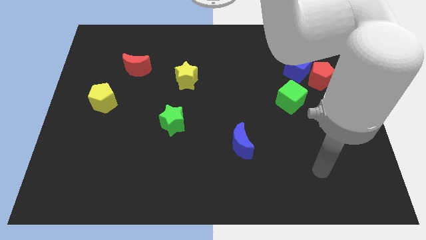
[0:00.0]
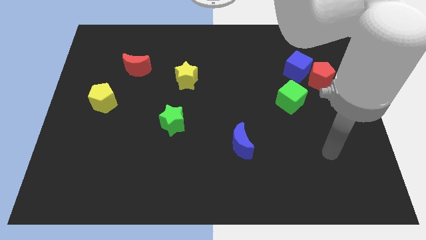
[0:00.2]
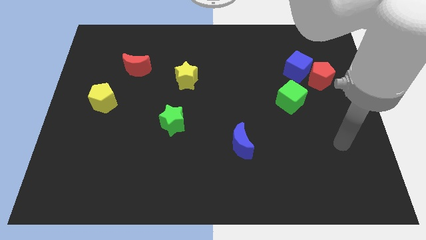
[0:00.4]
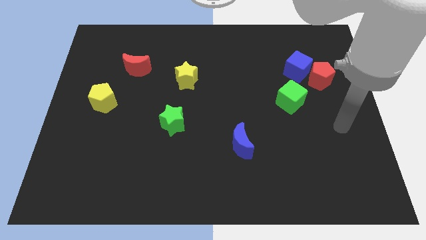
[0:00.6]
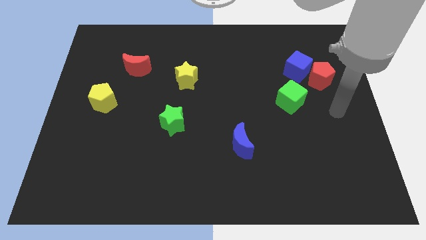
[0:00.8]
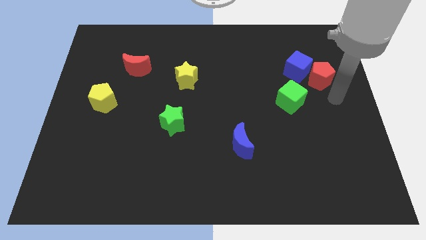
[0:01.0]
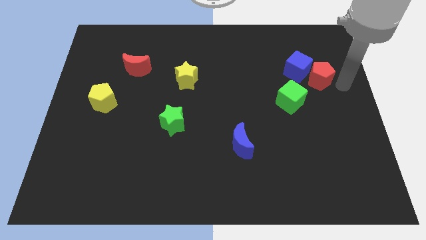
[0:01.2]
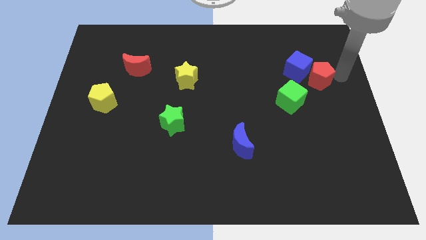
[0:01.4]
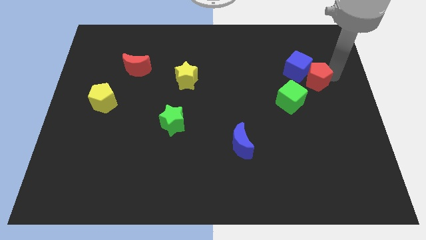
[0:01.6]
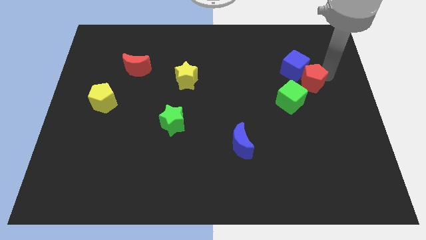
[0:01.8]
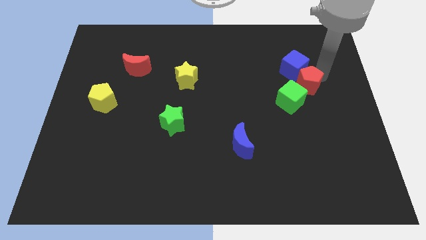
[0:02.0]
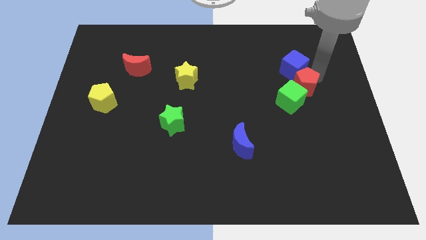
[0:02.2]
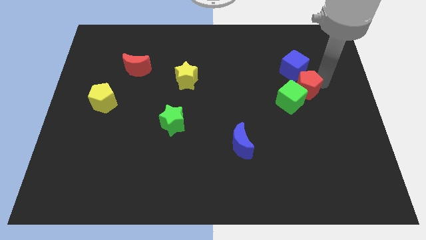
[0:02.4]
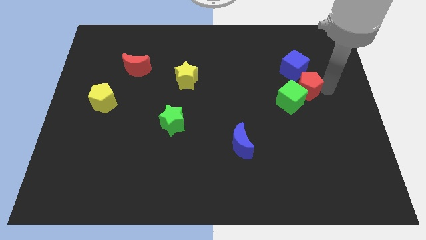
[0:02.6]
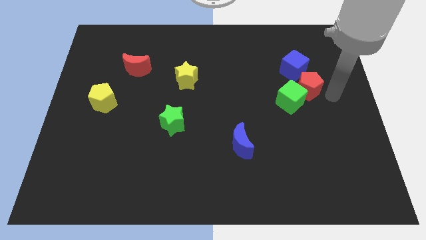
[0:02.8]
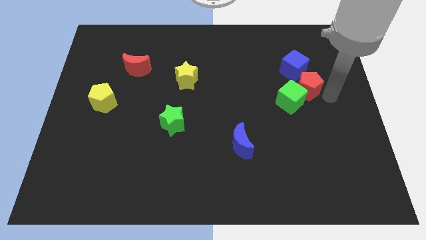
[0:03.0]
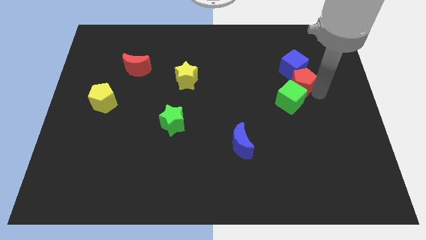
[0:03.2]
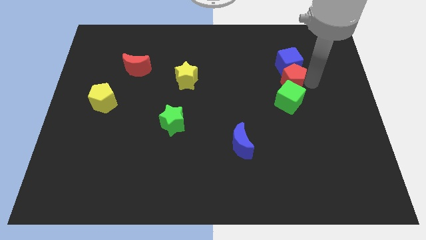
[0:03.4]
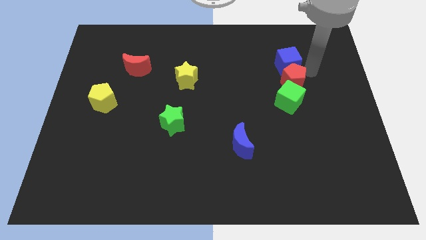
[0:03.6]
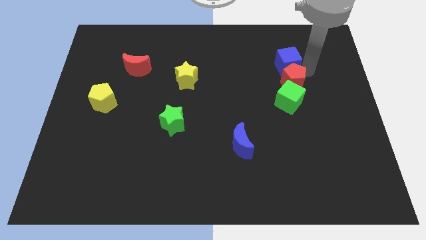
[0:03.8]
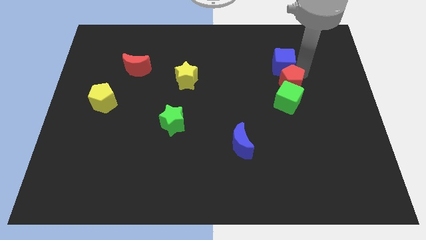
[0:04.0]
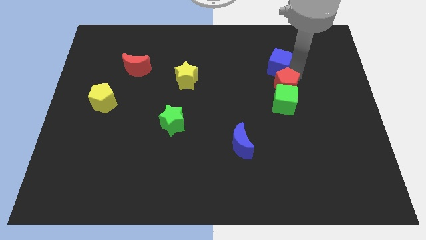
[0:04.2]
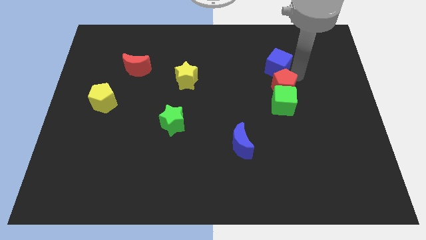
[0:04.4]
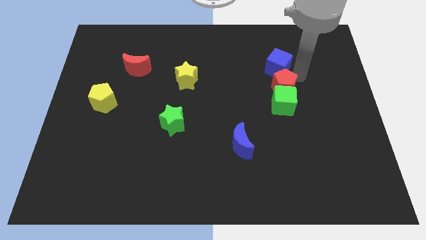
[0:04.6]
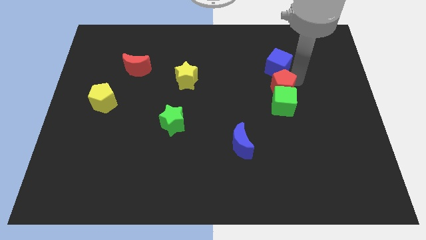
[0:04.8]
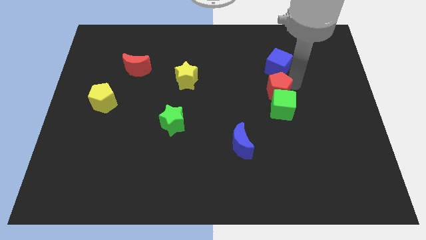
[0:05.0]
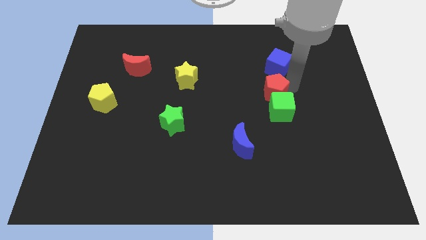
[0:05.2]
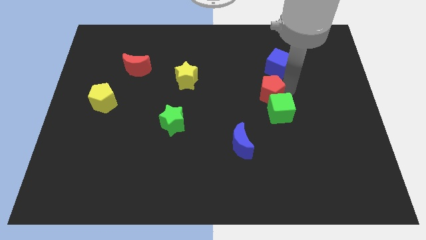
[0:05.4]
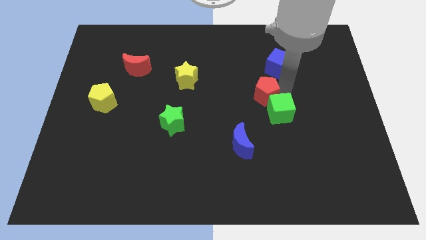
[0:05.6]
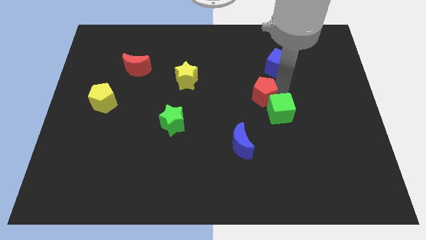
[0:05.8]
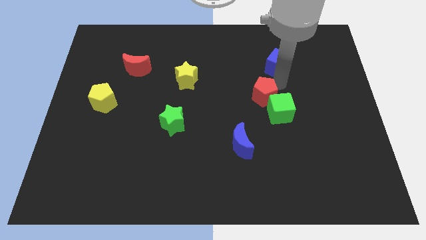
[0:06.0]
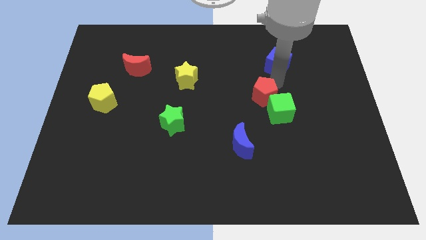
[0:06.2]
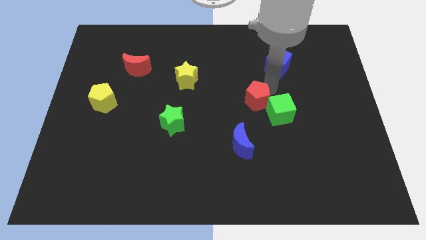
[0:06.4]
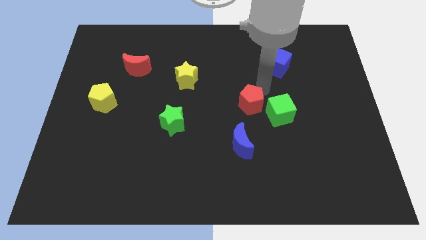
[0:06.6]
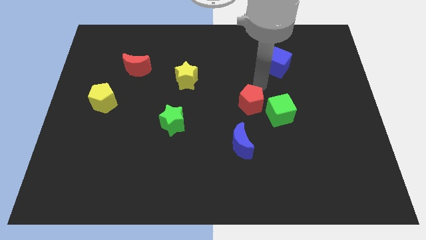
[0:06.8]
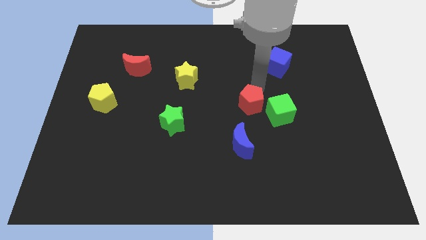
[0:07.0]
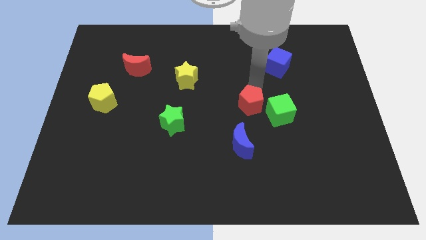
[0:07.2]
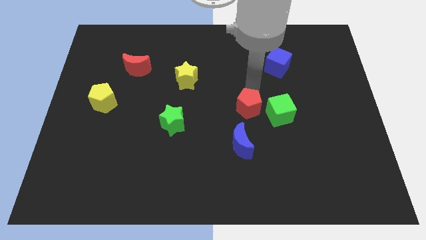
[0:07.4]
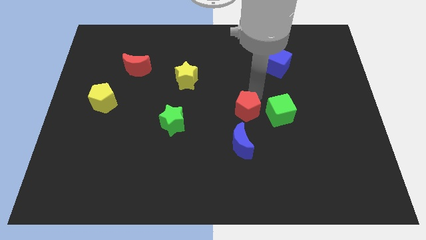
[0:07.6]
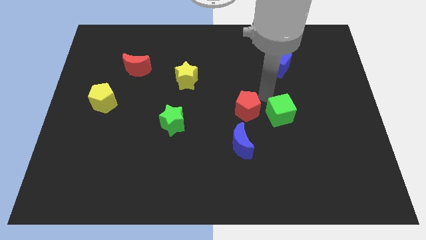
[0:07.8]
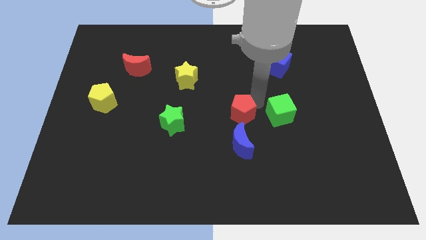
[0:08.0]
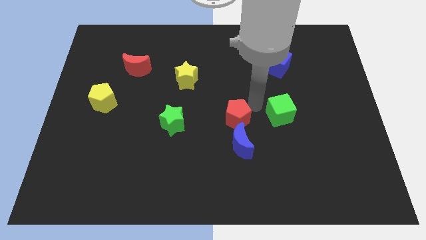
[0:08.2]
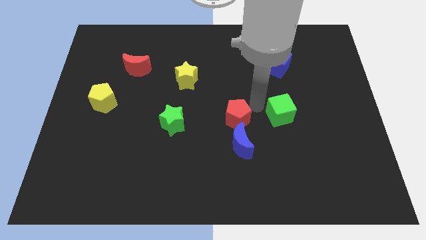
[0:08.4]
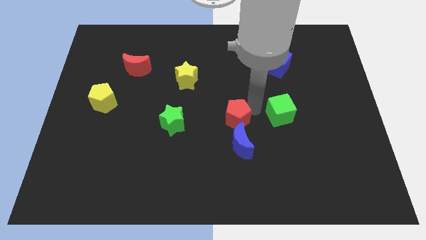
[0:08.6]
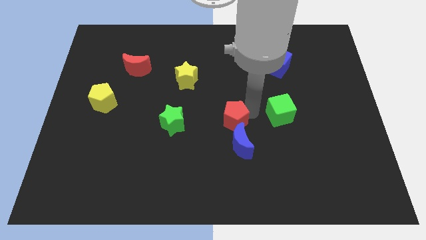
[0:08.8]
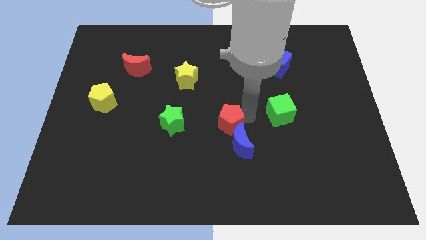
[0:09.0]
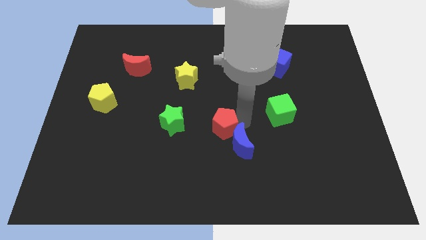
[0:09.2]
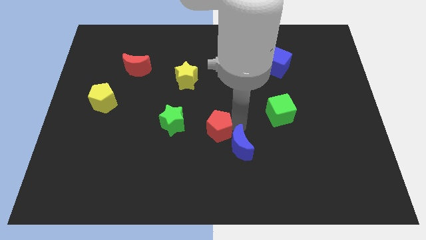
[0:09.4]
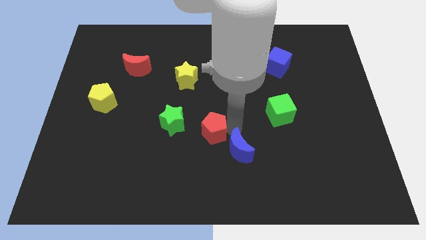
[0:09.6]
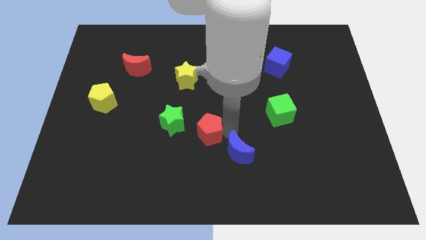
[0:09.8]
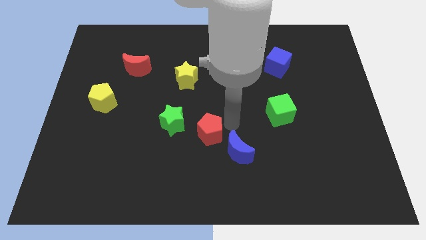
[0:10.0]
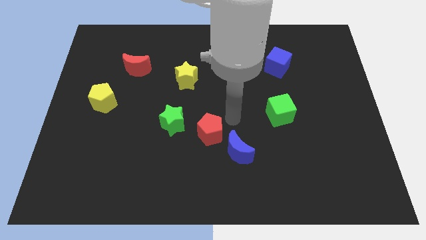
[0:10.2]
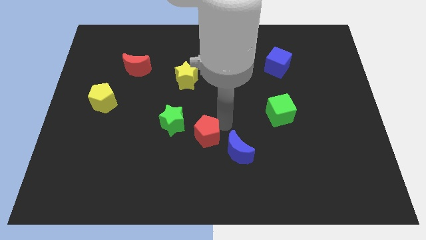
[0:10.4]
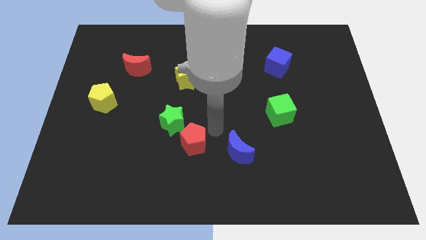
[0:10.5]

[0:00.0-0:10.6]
move the red pentagon to the bottom of the green star

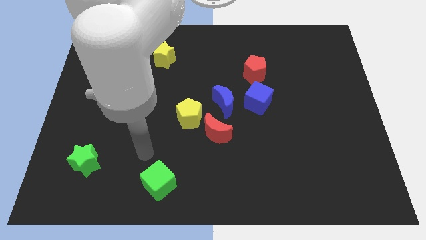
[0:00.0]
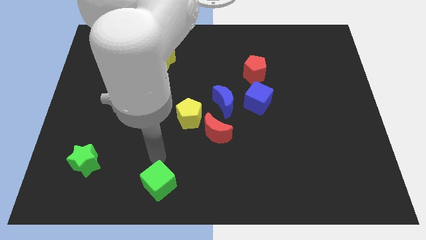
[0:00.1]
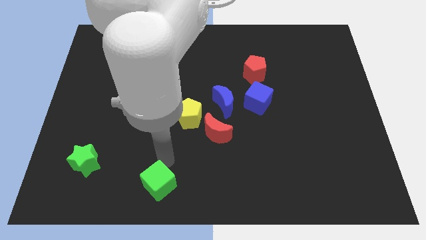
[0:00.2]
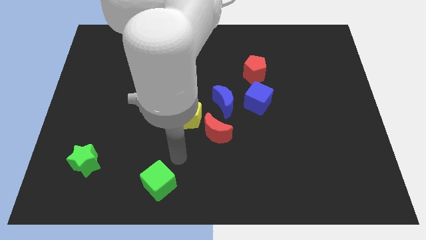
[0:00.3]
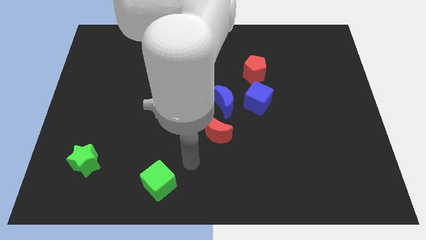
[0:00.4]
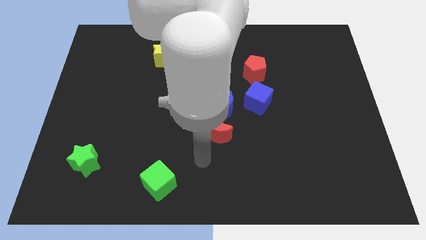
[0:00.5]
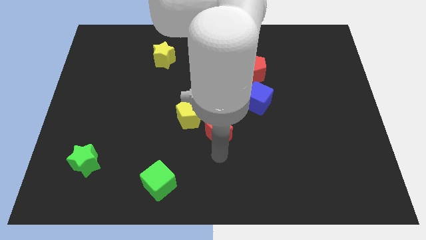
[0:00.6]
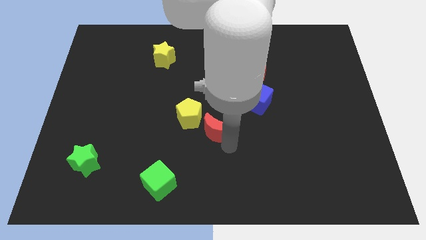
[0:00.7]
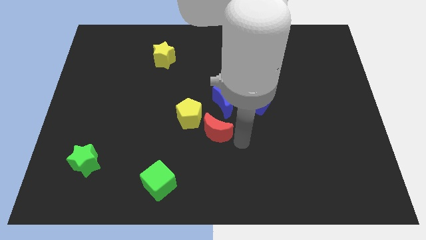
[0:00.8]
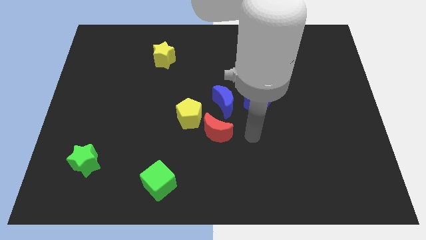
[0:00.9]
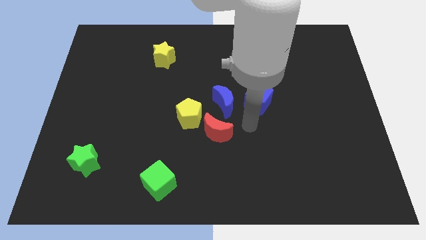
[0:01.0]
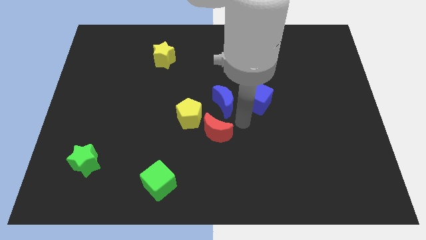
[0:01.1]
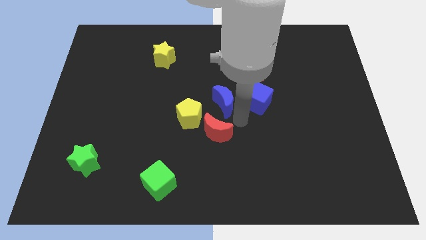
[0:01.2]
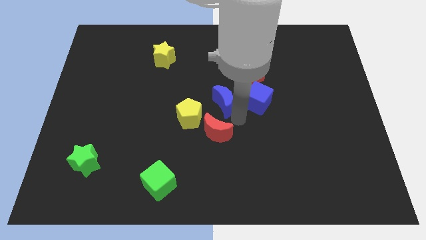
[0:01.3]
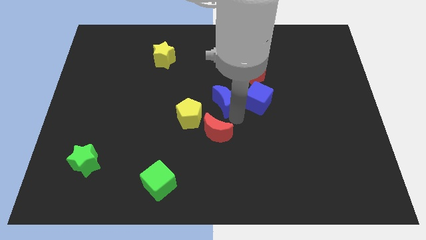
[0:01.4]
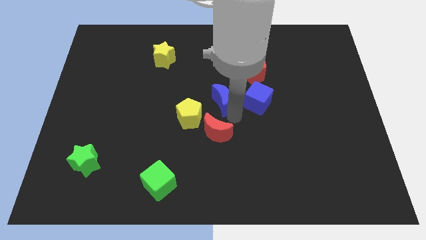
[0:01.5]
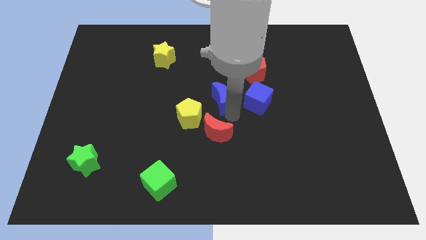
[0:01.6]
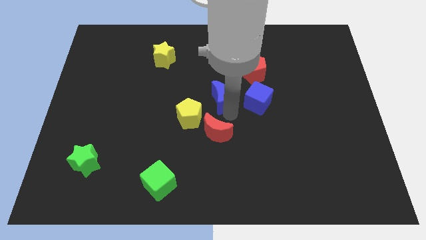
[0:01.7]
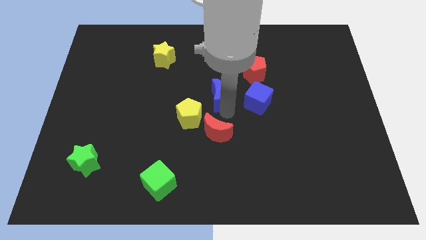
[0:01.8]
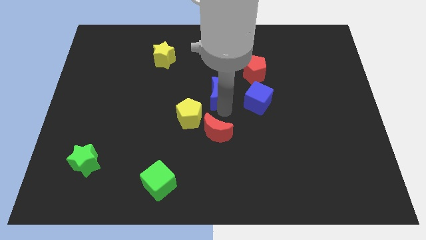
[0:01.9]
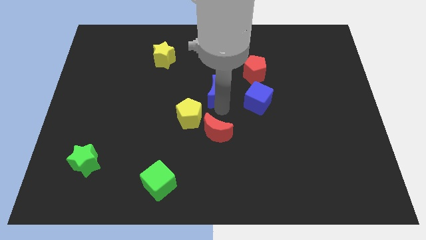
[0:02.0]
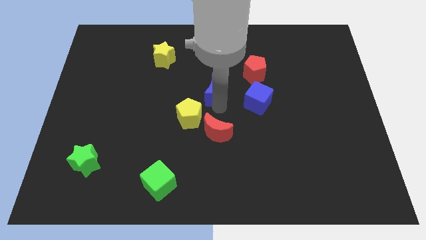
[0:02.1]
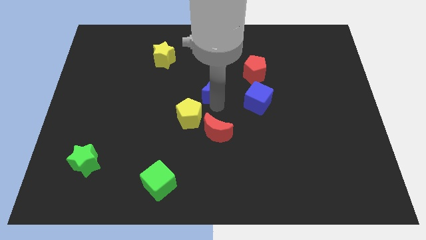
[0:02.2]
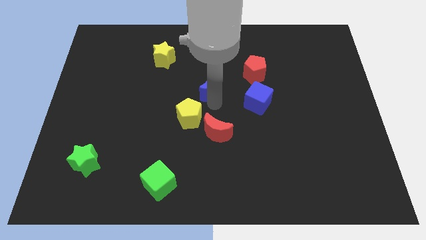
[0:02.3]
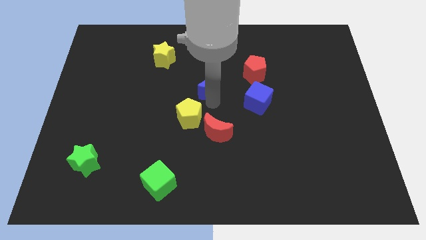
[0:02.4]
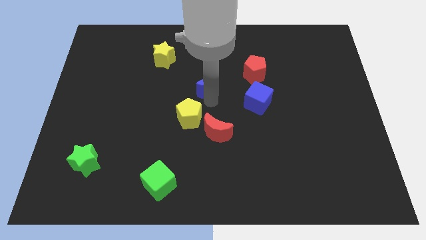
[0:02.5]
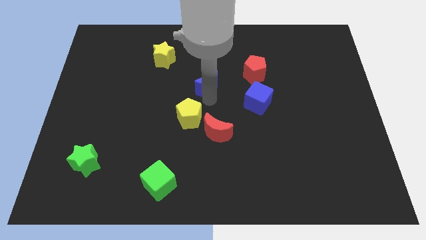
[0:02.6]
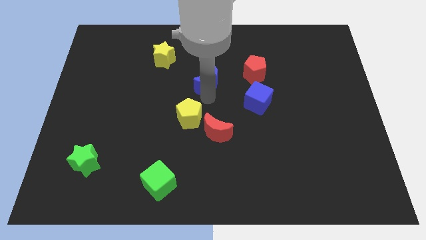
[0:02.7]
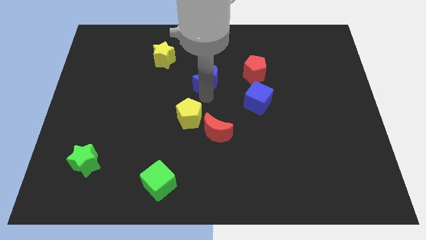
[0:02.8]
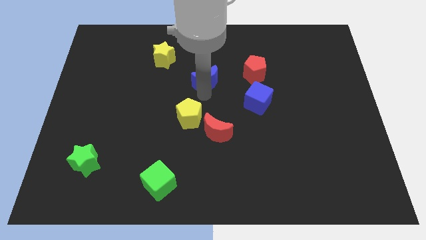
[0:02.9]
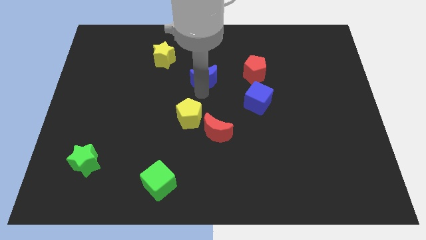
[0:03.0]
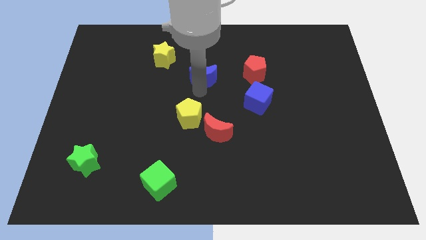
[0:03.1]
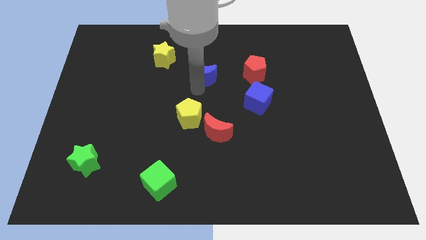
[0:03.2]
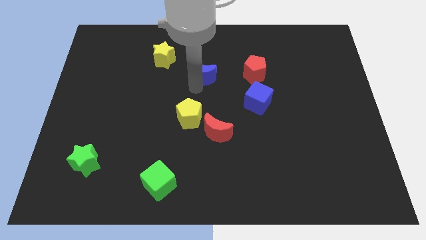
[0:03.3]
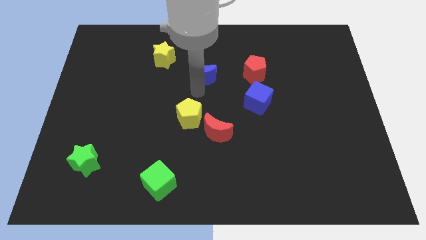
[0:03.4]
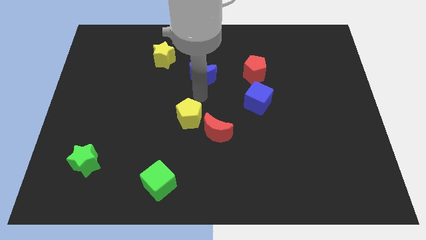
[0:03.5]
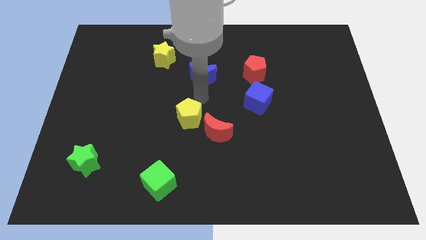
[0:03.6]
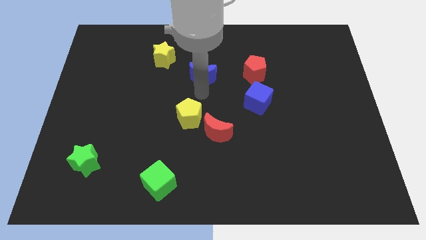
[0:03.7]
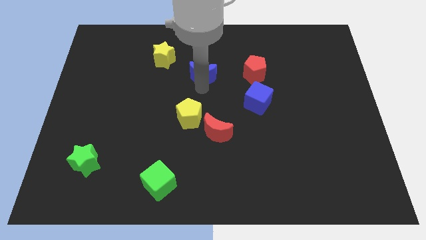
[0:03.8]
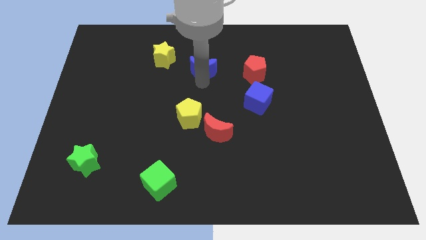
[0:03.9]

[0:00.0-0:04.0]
put the blue moon right of the yellow star
